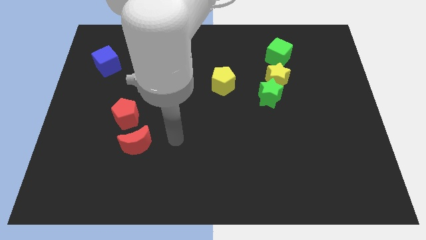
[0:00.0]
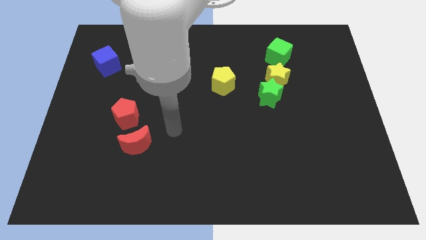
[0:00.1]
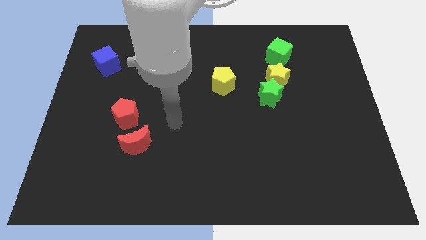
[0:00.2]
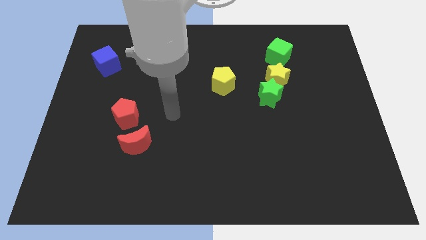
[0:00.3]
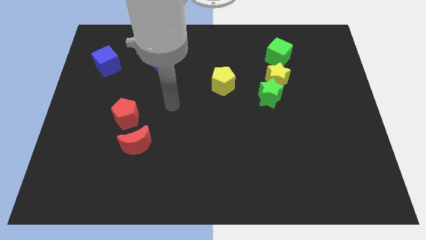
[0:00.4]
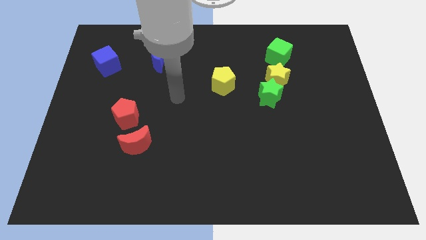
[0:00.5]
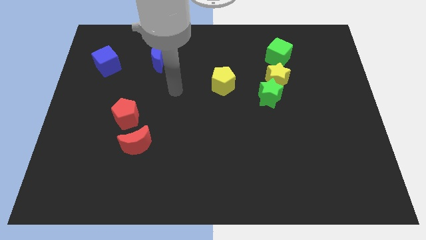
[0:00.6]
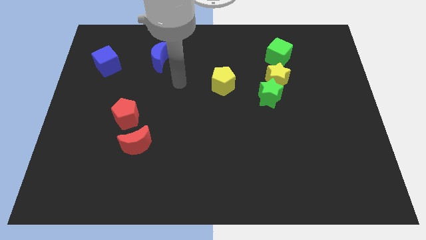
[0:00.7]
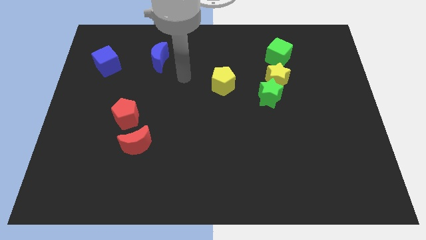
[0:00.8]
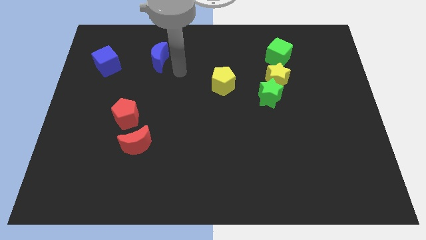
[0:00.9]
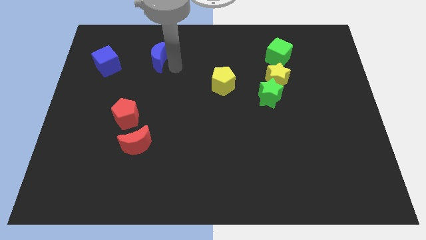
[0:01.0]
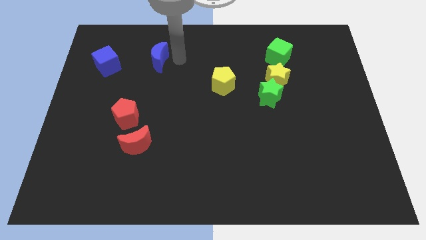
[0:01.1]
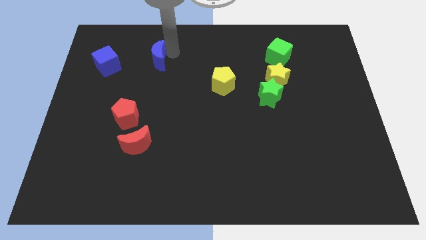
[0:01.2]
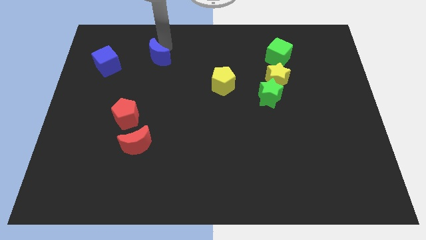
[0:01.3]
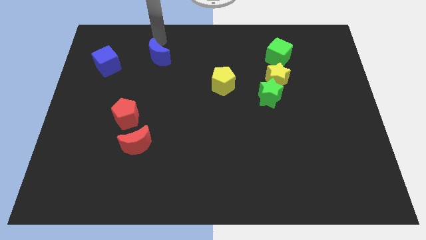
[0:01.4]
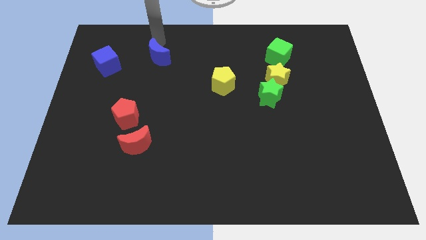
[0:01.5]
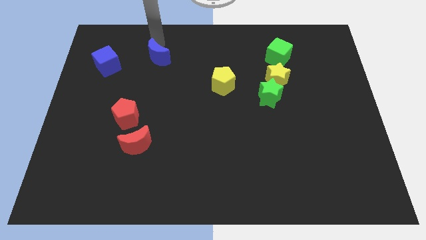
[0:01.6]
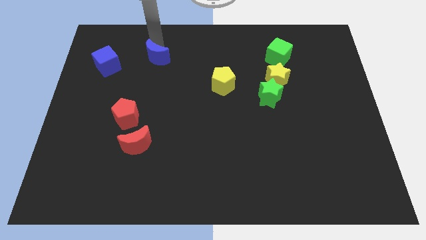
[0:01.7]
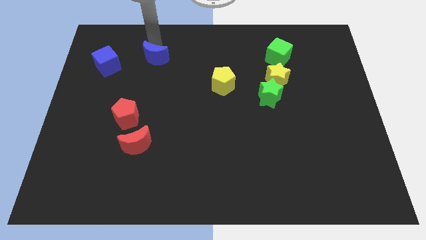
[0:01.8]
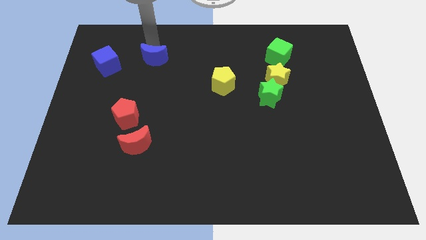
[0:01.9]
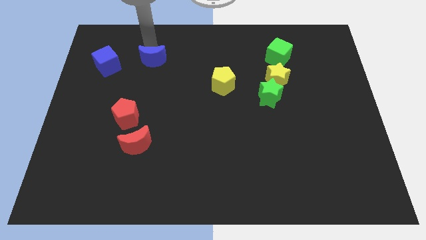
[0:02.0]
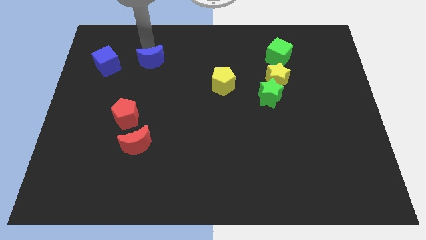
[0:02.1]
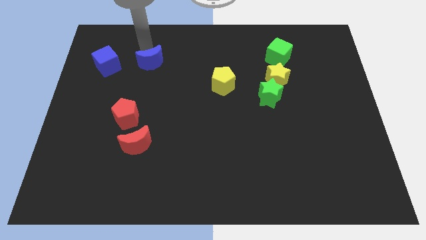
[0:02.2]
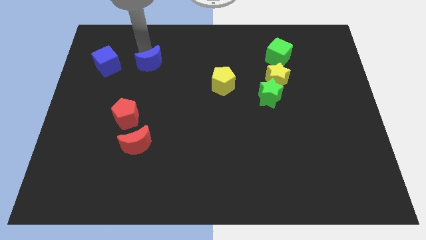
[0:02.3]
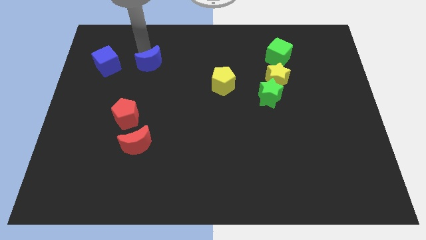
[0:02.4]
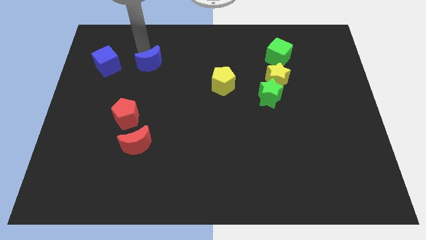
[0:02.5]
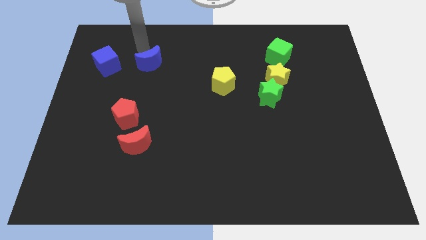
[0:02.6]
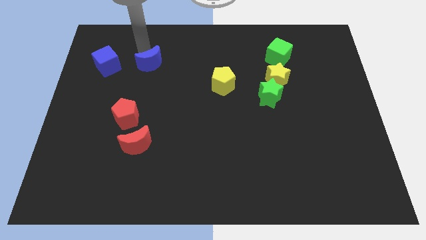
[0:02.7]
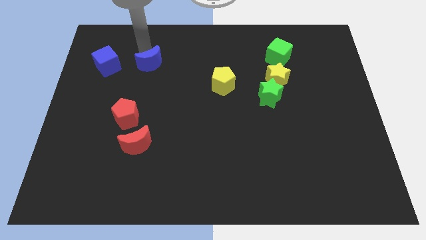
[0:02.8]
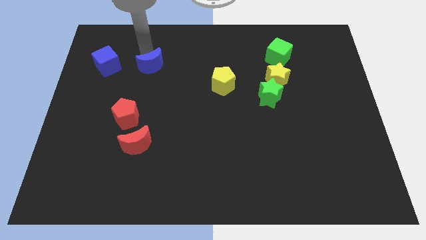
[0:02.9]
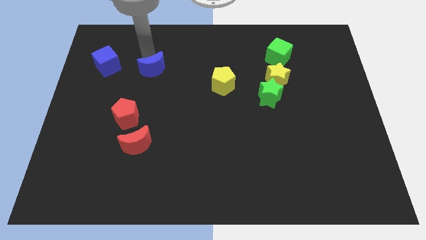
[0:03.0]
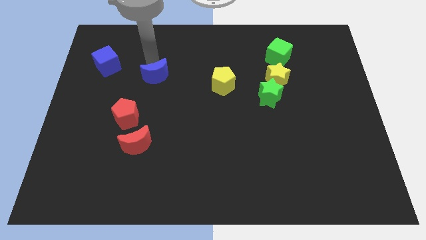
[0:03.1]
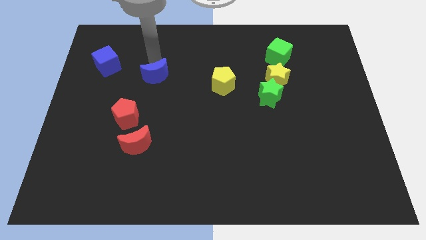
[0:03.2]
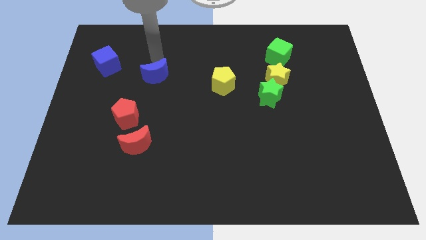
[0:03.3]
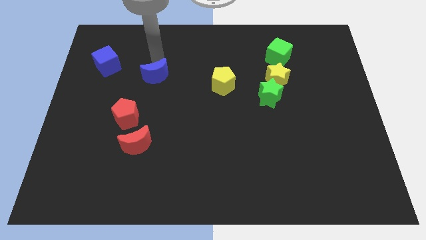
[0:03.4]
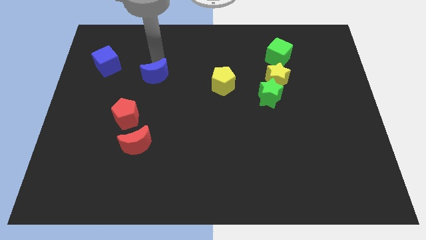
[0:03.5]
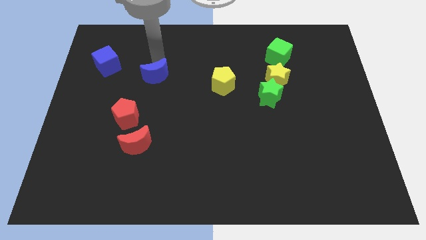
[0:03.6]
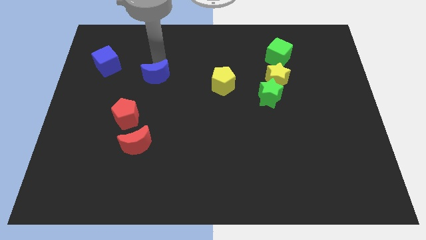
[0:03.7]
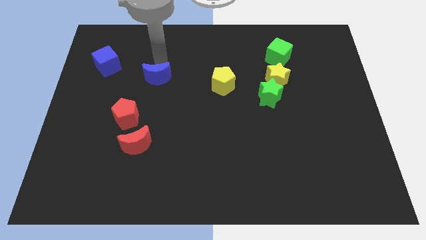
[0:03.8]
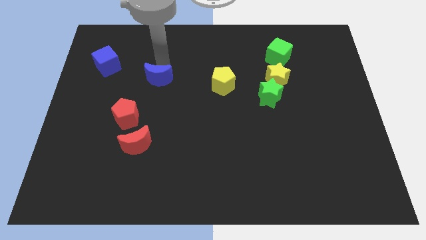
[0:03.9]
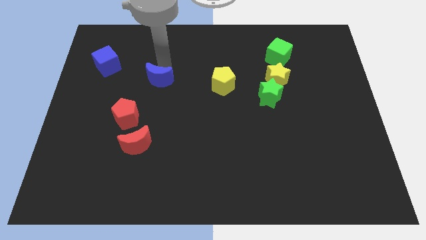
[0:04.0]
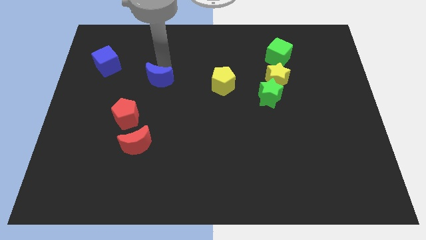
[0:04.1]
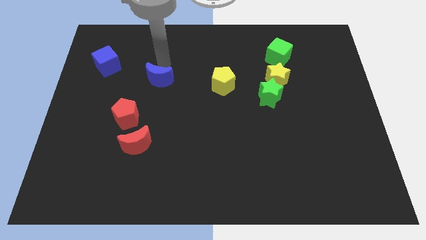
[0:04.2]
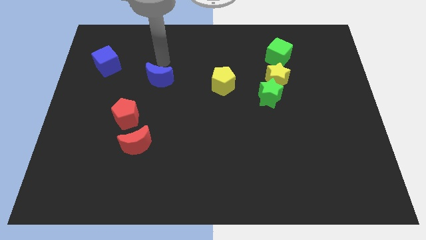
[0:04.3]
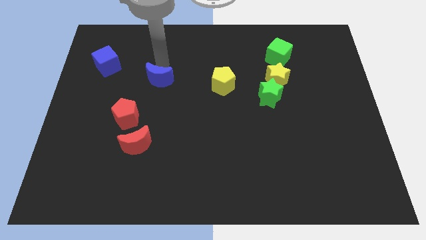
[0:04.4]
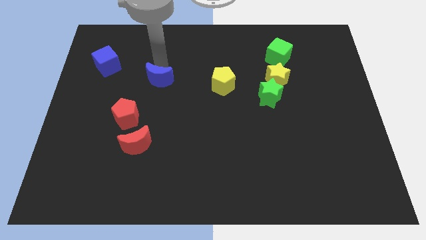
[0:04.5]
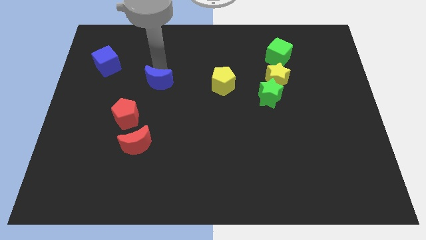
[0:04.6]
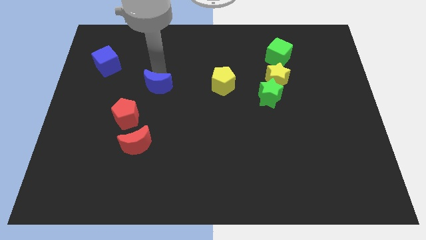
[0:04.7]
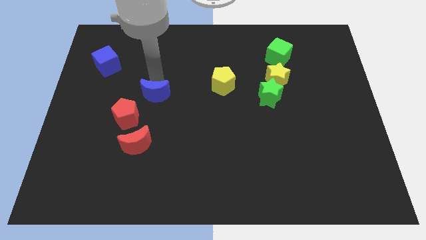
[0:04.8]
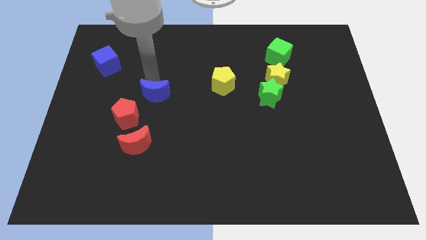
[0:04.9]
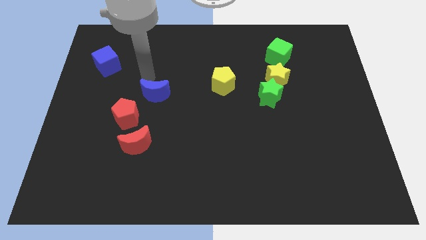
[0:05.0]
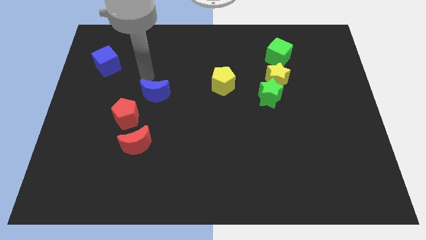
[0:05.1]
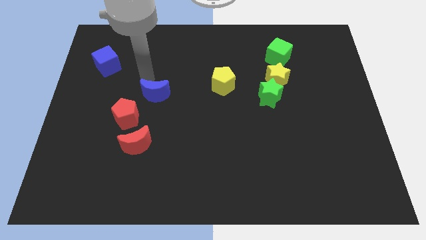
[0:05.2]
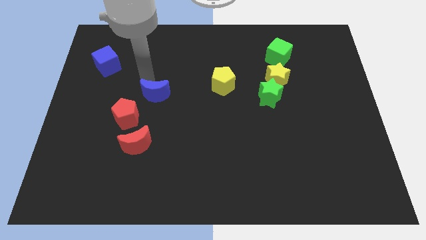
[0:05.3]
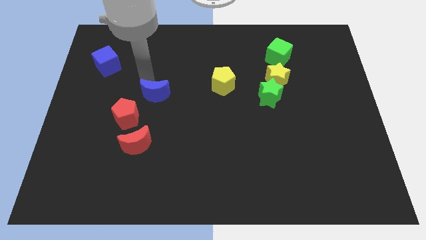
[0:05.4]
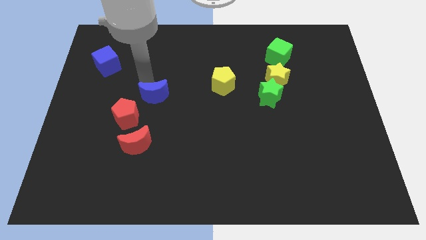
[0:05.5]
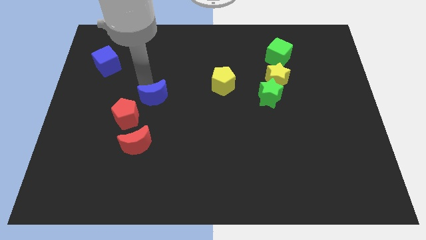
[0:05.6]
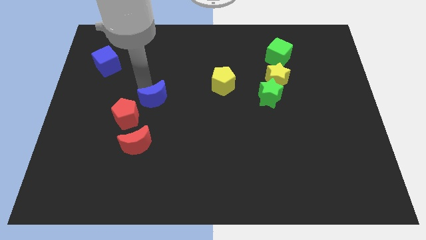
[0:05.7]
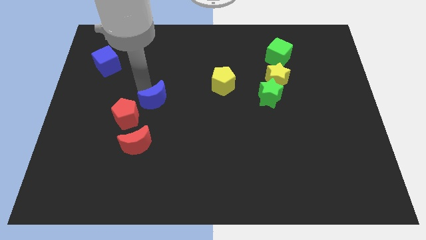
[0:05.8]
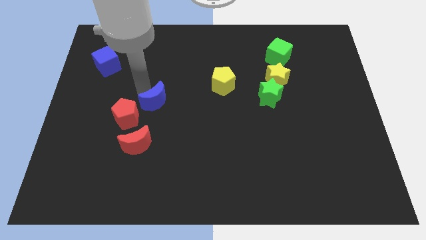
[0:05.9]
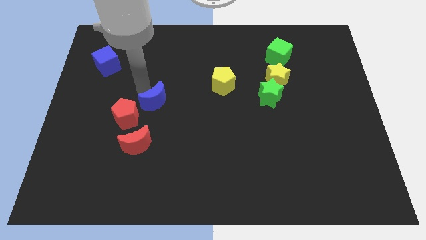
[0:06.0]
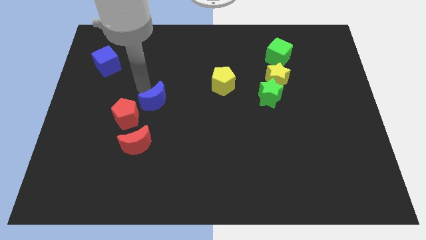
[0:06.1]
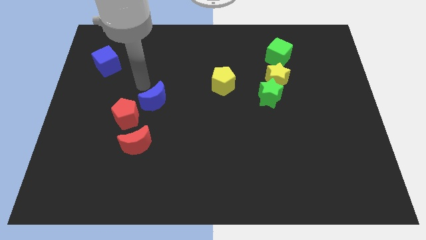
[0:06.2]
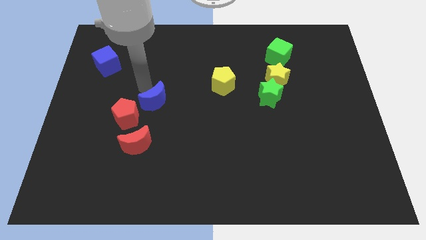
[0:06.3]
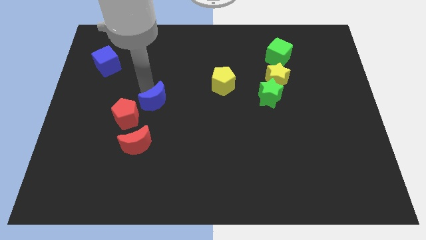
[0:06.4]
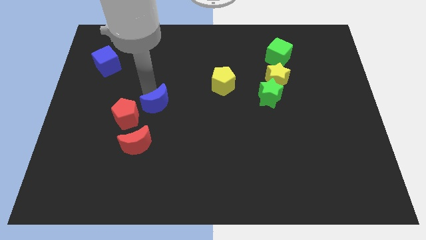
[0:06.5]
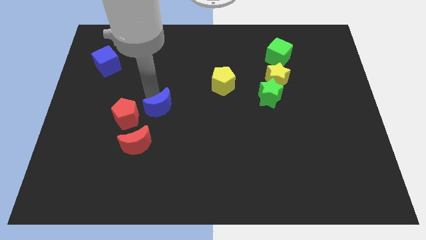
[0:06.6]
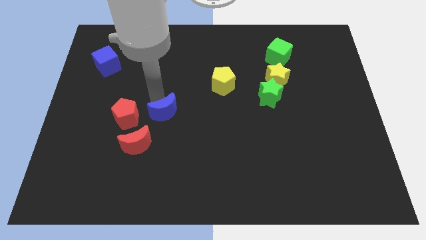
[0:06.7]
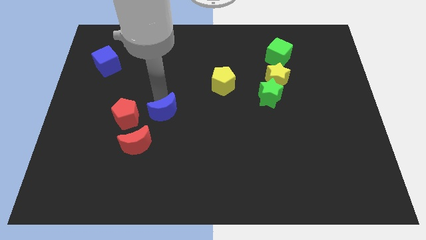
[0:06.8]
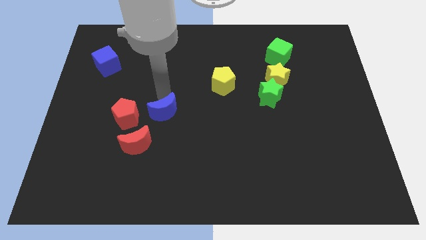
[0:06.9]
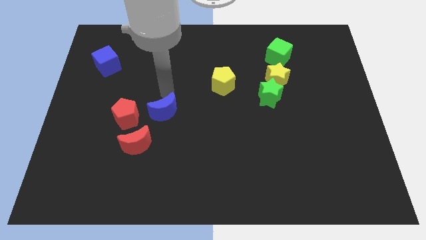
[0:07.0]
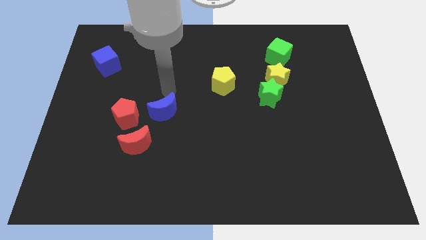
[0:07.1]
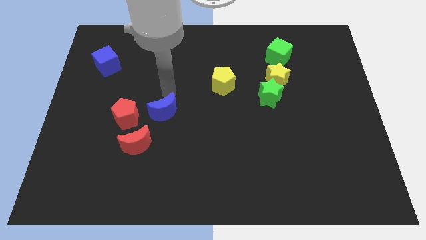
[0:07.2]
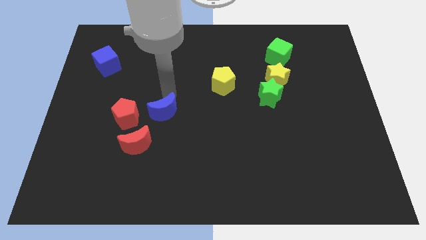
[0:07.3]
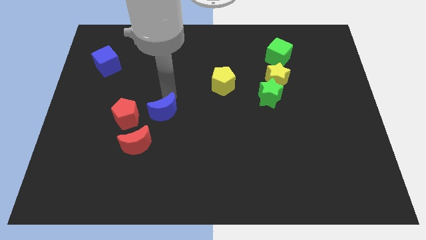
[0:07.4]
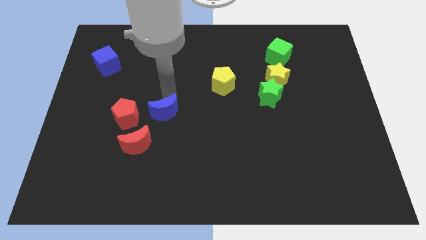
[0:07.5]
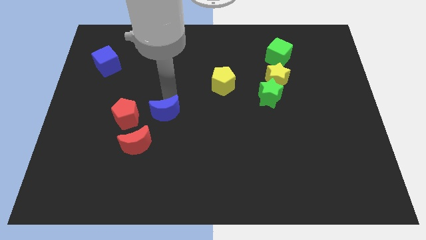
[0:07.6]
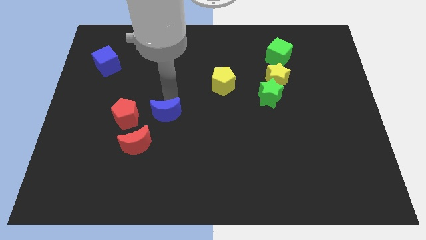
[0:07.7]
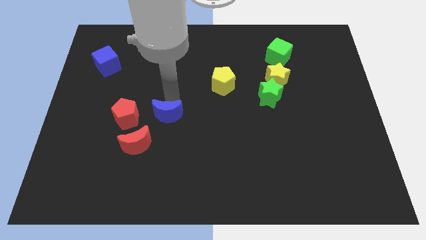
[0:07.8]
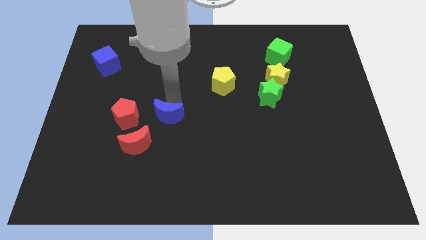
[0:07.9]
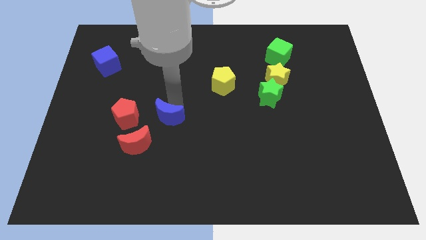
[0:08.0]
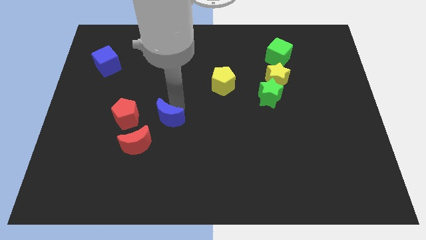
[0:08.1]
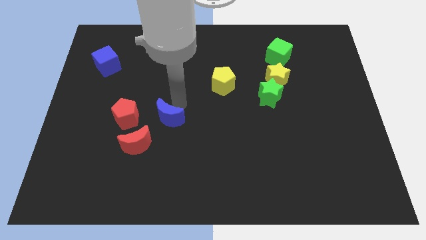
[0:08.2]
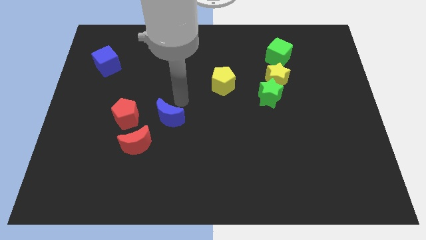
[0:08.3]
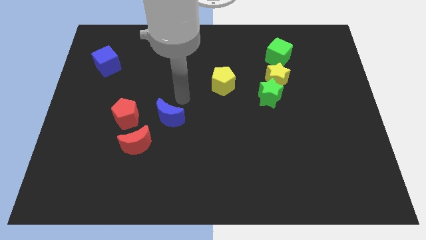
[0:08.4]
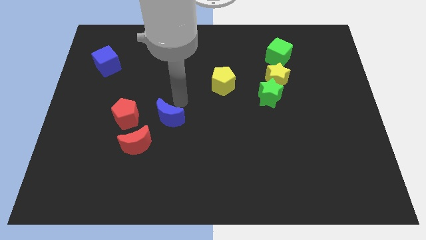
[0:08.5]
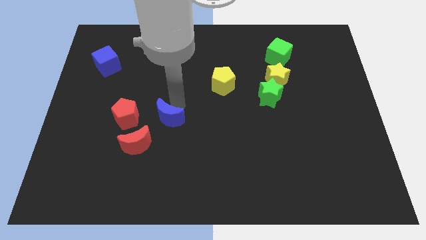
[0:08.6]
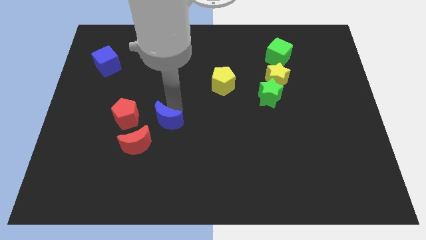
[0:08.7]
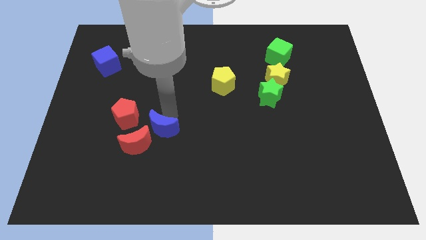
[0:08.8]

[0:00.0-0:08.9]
push the blue moon down
